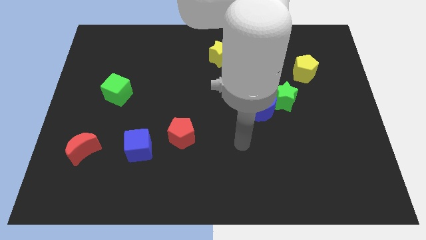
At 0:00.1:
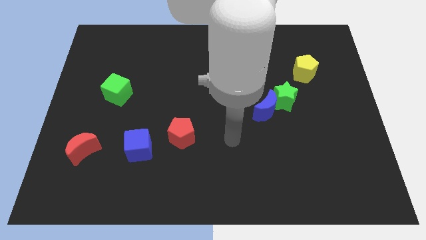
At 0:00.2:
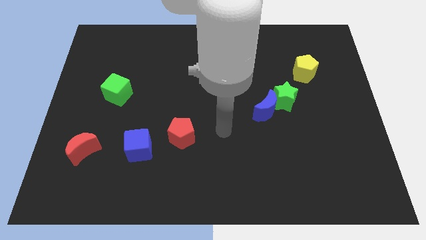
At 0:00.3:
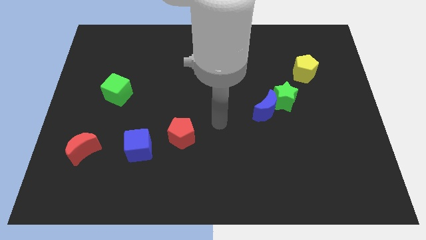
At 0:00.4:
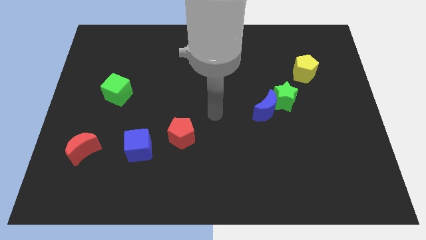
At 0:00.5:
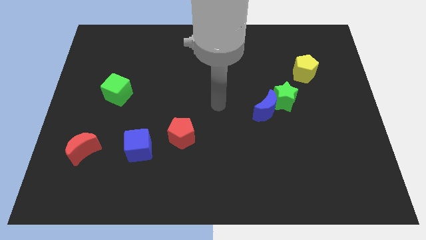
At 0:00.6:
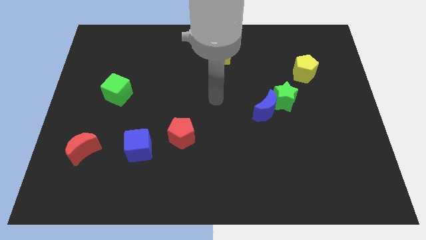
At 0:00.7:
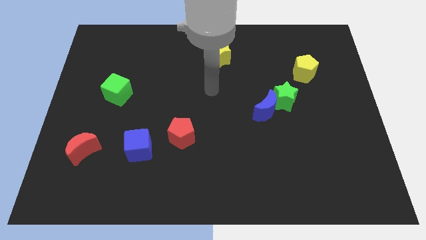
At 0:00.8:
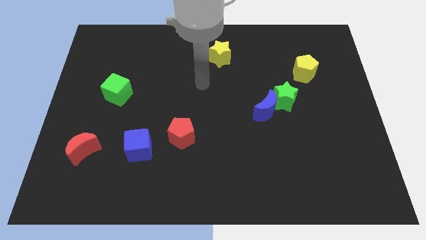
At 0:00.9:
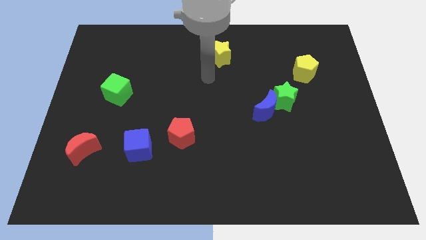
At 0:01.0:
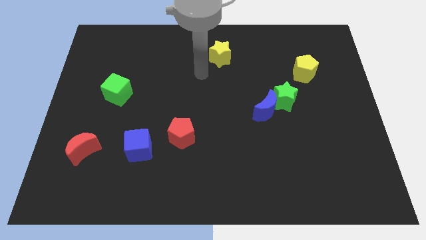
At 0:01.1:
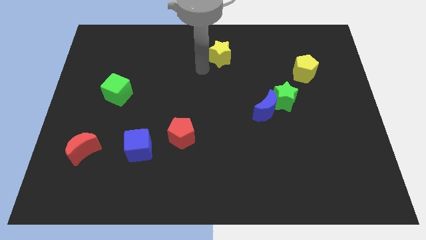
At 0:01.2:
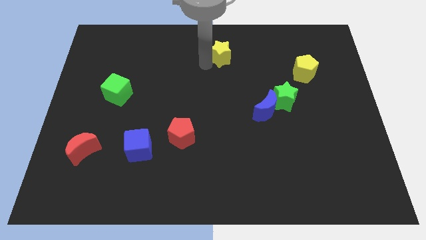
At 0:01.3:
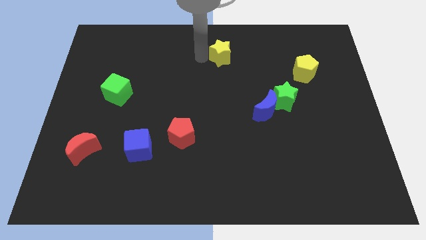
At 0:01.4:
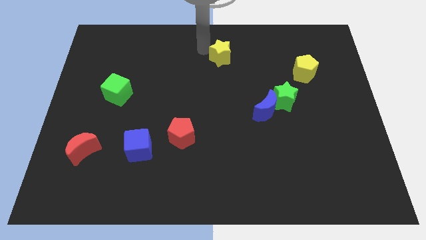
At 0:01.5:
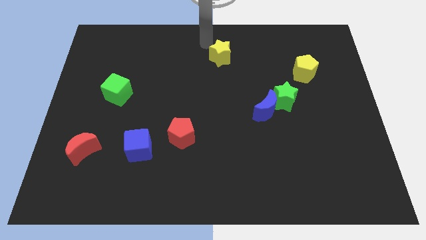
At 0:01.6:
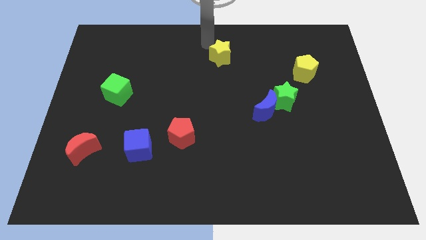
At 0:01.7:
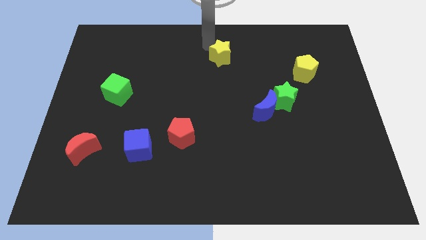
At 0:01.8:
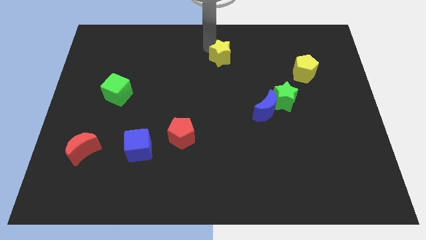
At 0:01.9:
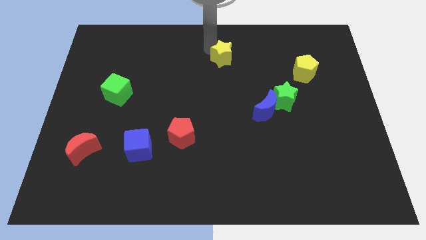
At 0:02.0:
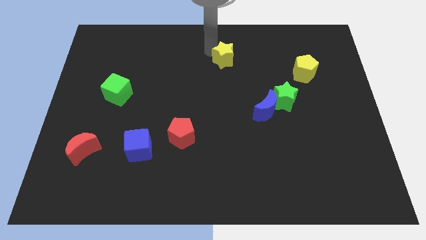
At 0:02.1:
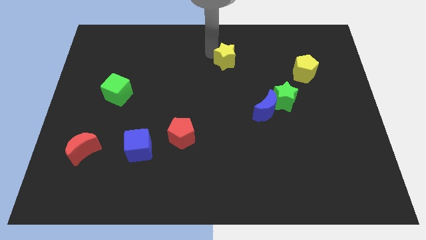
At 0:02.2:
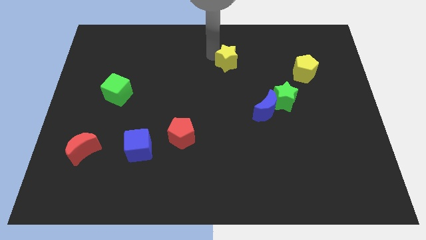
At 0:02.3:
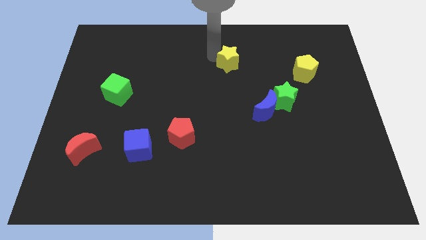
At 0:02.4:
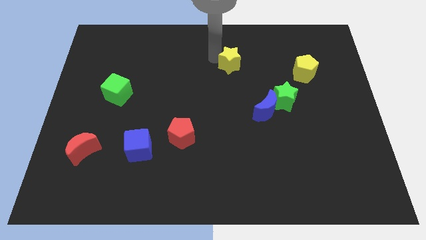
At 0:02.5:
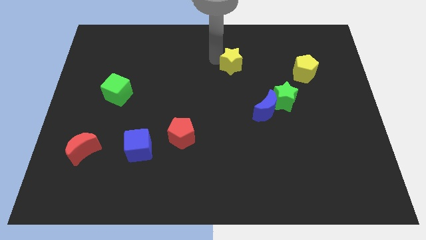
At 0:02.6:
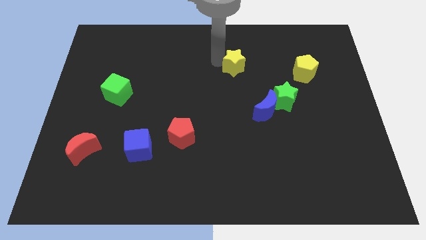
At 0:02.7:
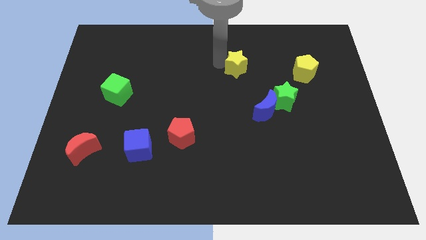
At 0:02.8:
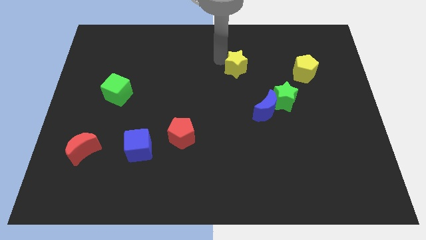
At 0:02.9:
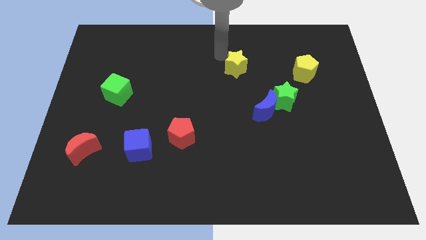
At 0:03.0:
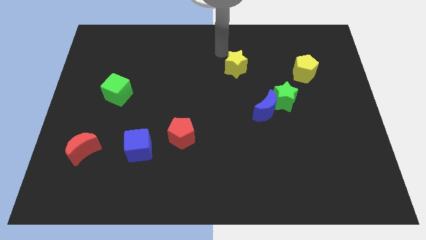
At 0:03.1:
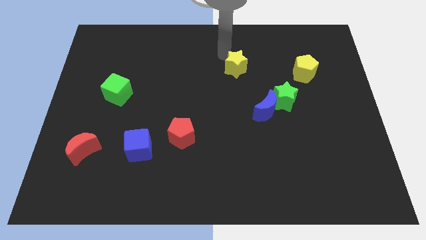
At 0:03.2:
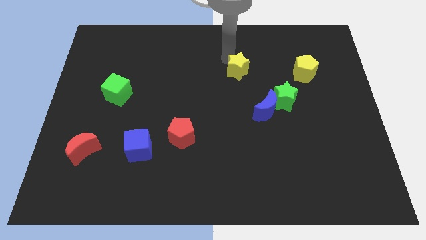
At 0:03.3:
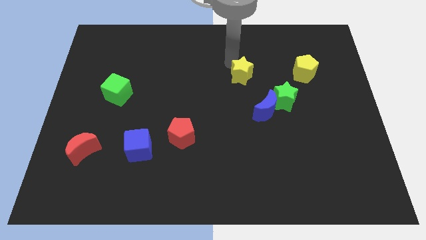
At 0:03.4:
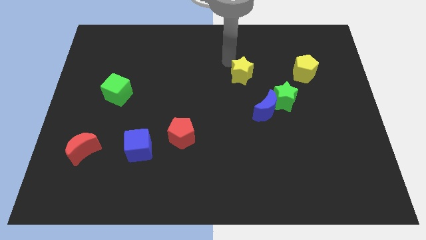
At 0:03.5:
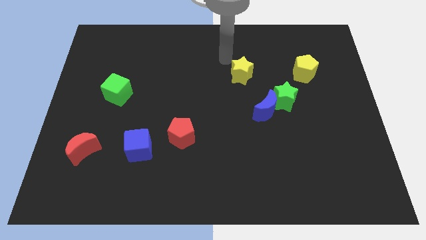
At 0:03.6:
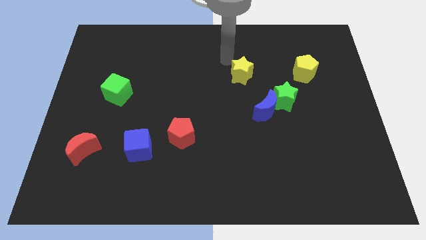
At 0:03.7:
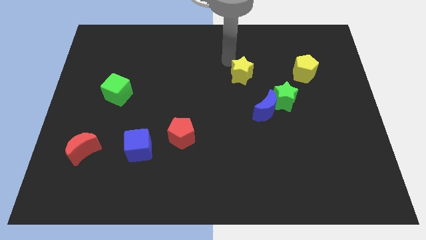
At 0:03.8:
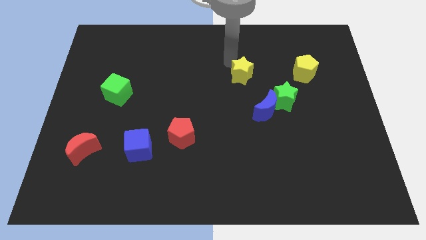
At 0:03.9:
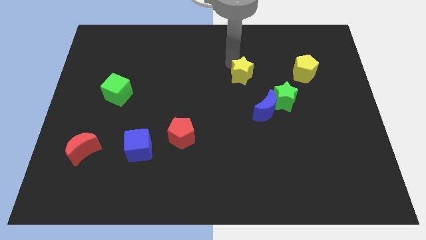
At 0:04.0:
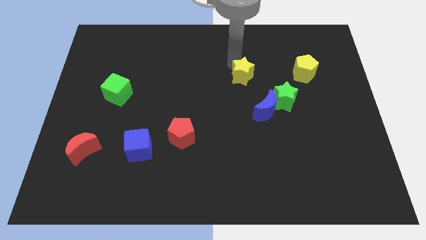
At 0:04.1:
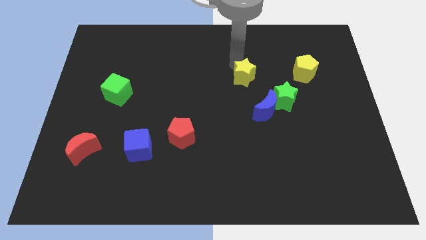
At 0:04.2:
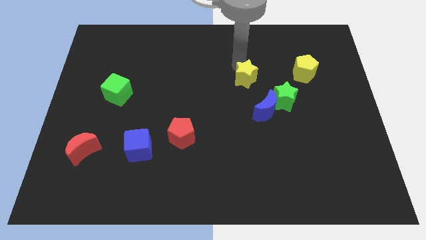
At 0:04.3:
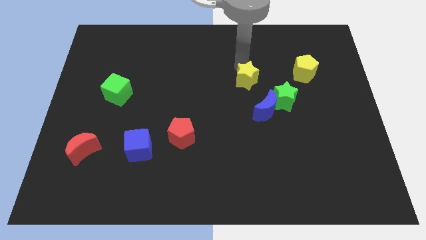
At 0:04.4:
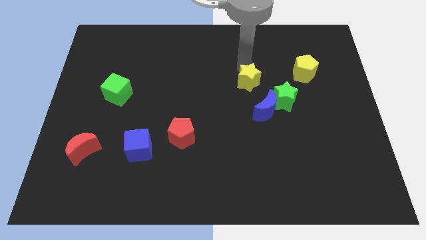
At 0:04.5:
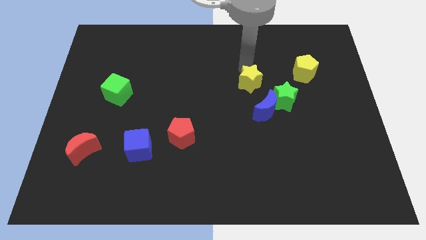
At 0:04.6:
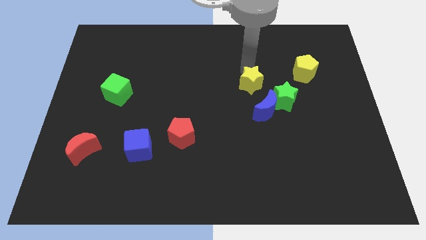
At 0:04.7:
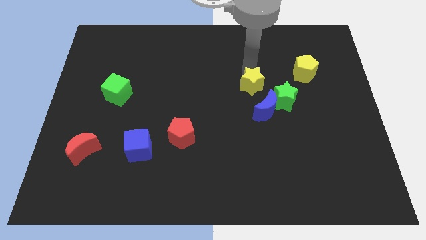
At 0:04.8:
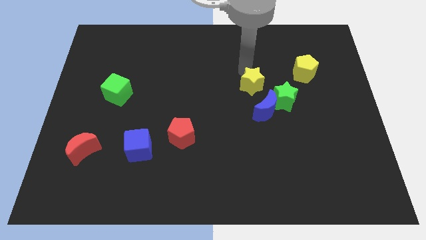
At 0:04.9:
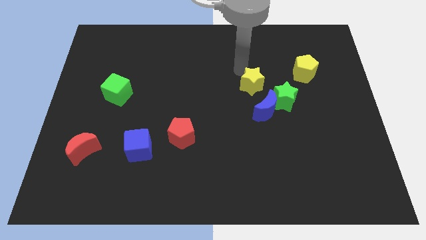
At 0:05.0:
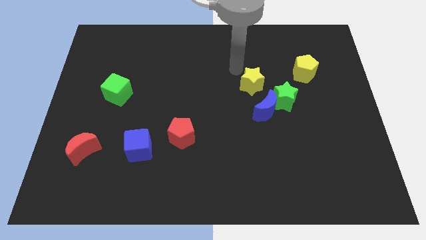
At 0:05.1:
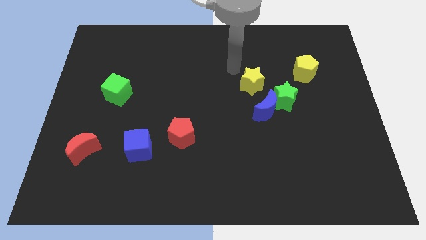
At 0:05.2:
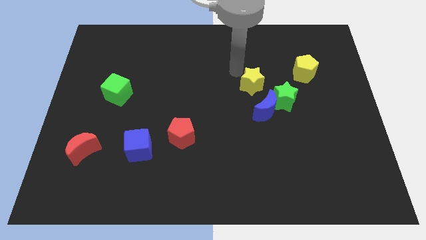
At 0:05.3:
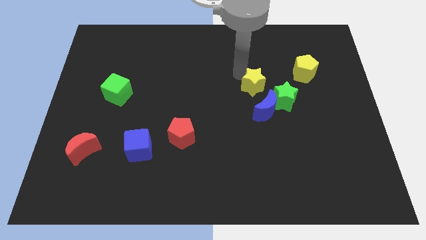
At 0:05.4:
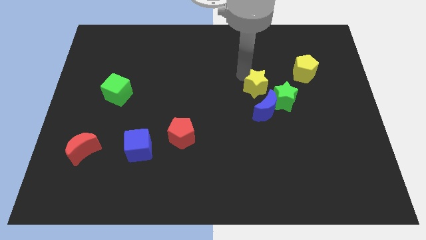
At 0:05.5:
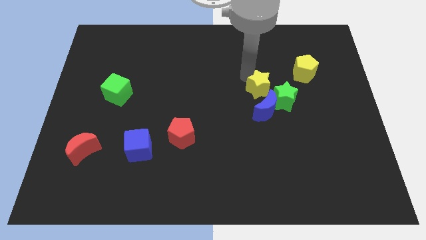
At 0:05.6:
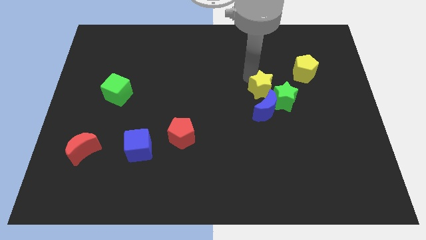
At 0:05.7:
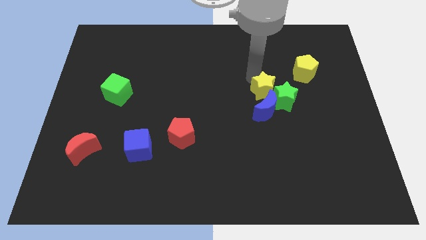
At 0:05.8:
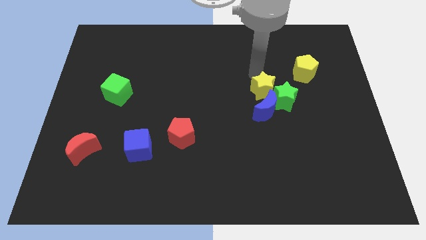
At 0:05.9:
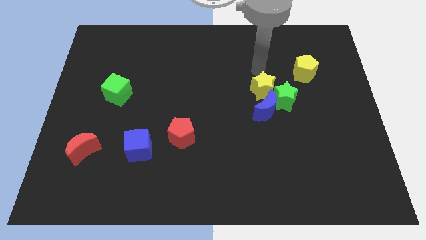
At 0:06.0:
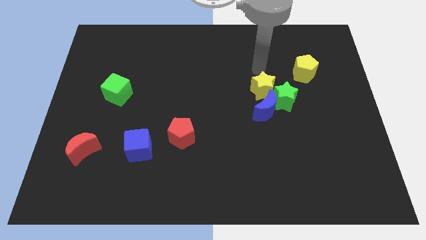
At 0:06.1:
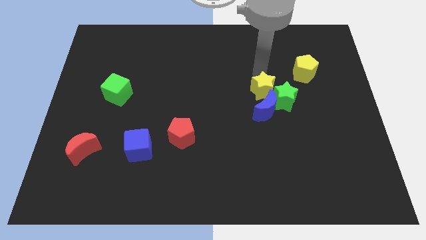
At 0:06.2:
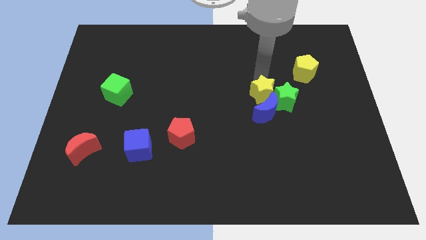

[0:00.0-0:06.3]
move the yellow star close to the blue moon

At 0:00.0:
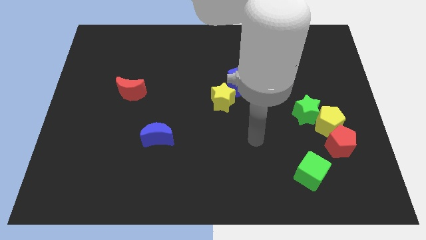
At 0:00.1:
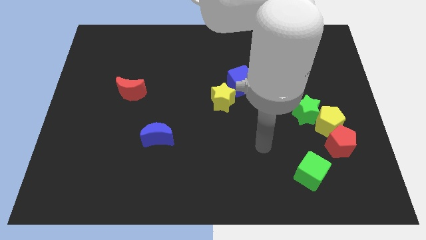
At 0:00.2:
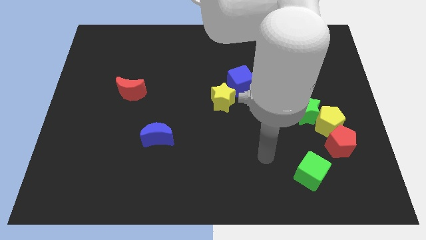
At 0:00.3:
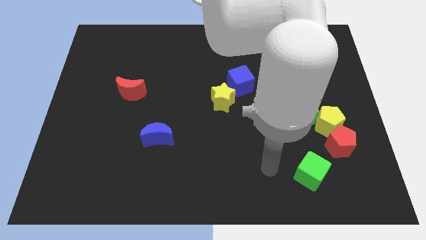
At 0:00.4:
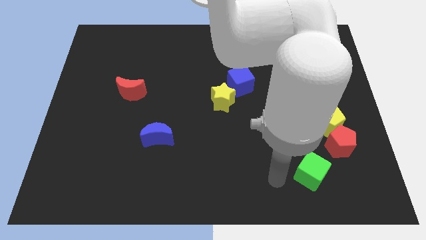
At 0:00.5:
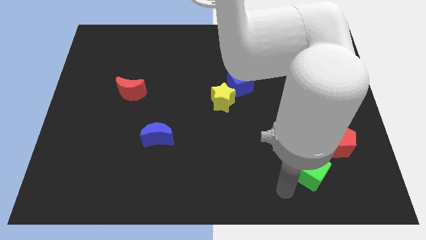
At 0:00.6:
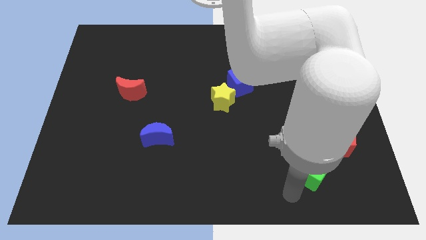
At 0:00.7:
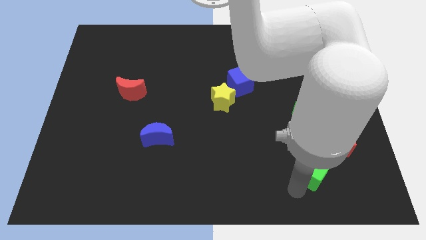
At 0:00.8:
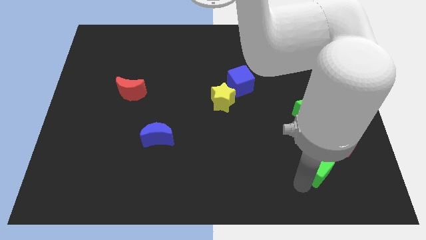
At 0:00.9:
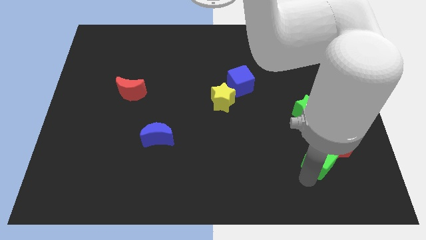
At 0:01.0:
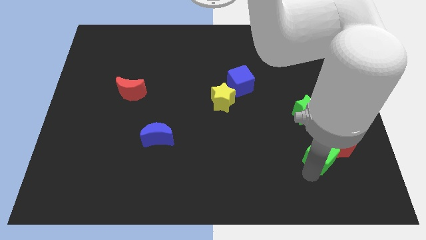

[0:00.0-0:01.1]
put the green cube to the red pentagon
